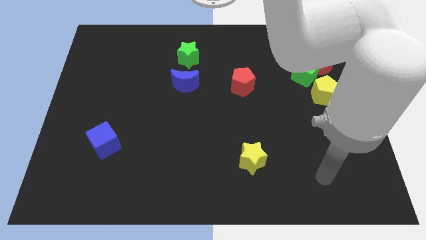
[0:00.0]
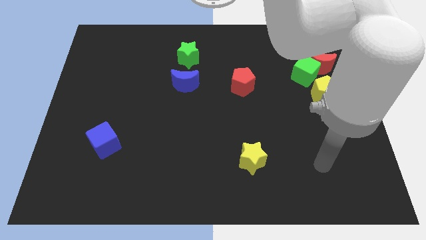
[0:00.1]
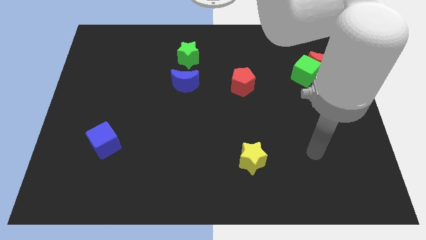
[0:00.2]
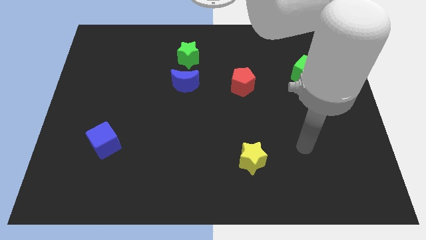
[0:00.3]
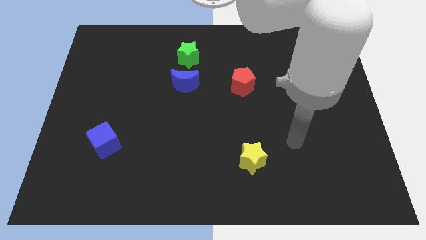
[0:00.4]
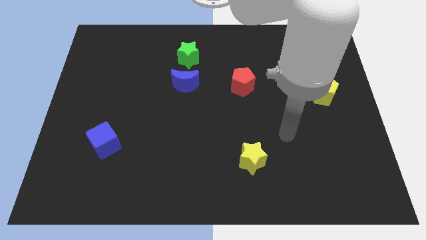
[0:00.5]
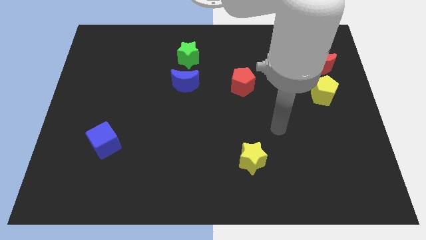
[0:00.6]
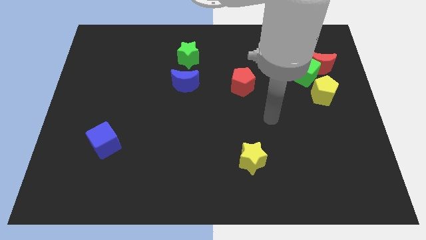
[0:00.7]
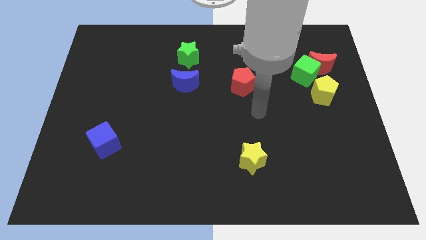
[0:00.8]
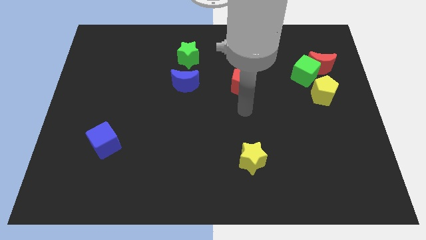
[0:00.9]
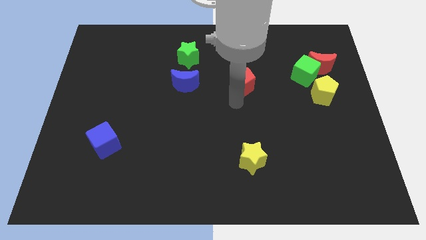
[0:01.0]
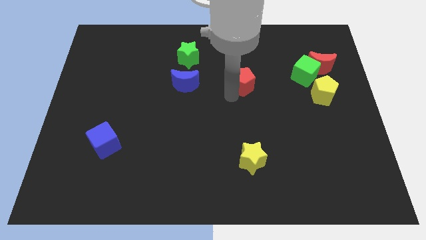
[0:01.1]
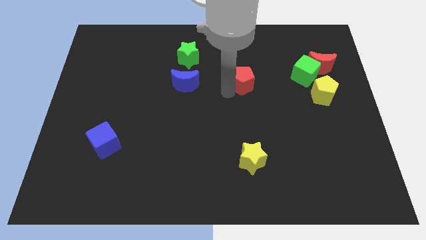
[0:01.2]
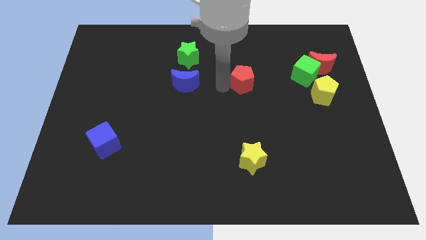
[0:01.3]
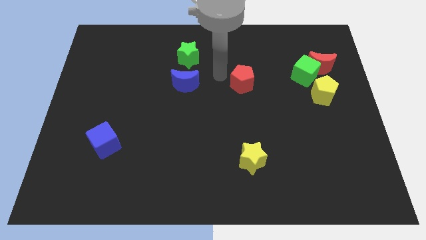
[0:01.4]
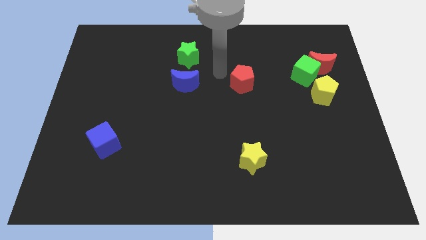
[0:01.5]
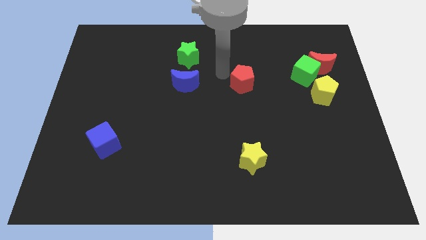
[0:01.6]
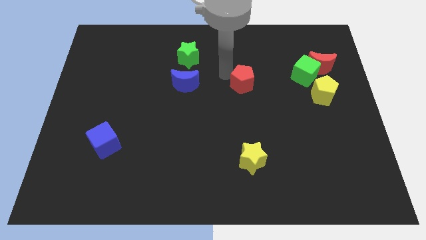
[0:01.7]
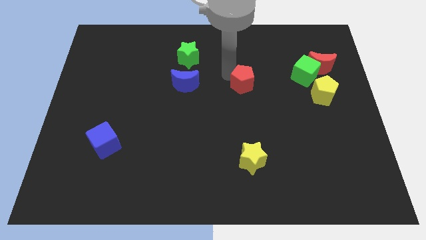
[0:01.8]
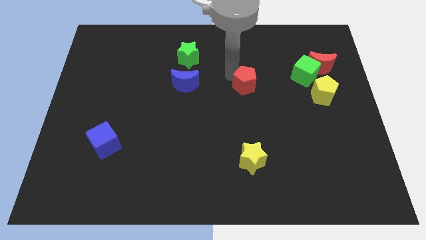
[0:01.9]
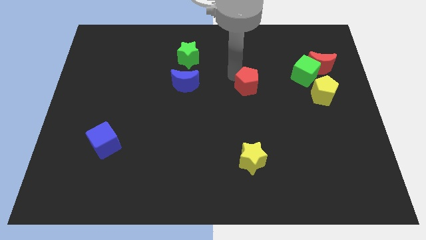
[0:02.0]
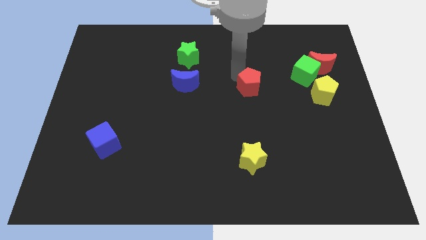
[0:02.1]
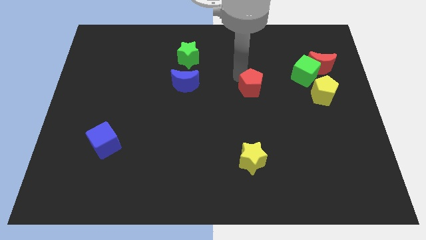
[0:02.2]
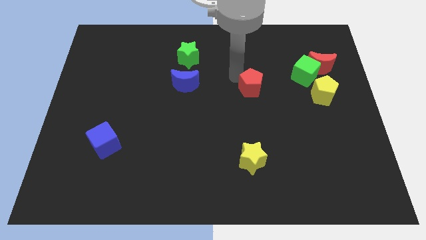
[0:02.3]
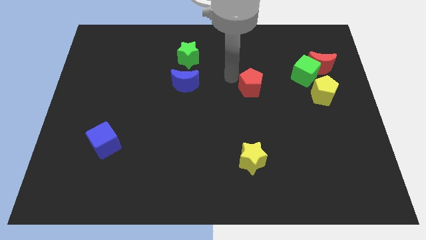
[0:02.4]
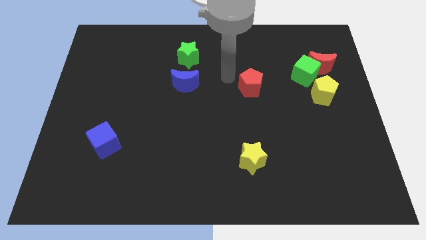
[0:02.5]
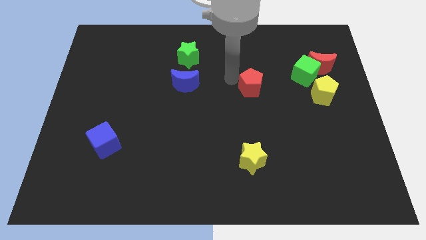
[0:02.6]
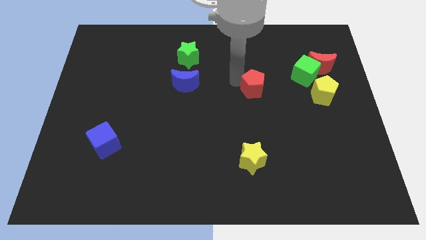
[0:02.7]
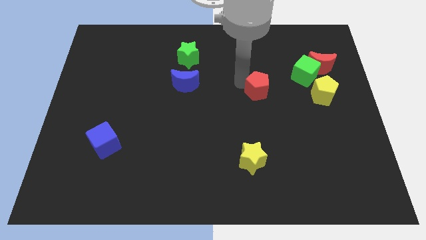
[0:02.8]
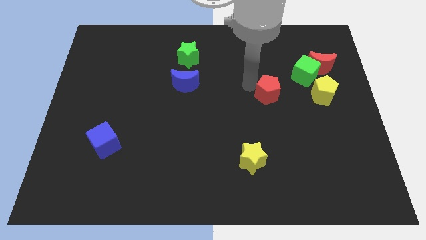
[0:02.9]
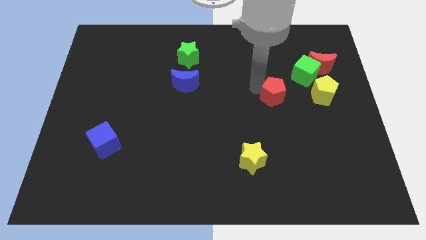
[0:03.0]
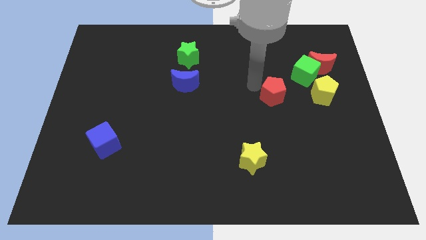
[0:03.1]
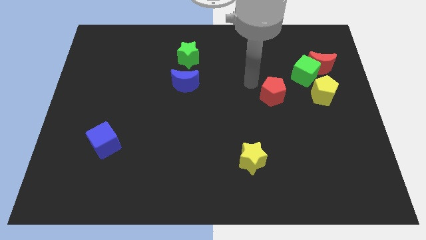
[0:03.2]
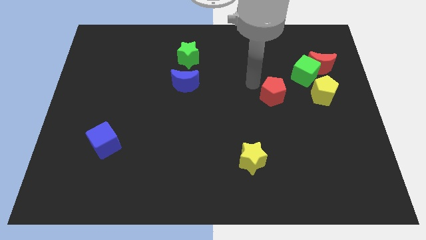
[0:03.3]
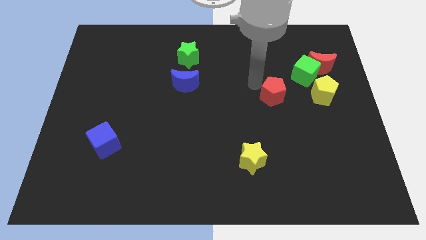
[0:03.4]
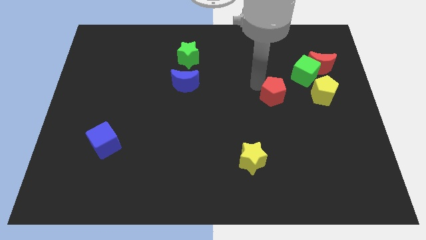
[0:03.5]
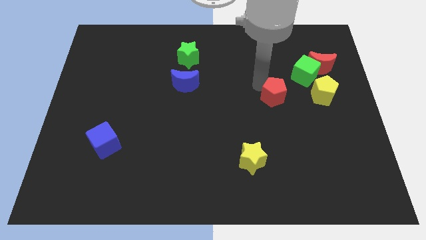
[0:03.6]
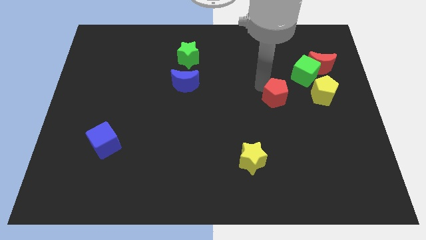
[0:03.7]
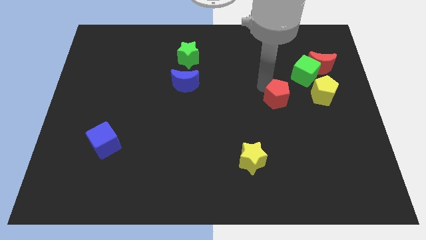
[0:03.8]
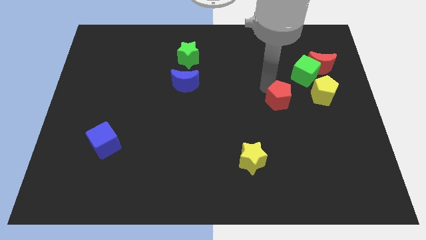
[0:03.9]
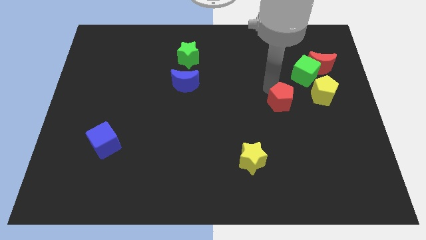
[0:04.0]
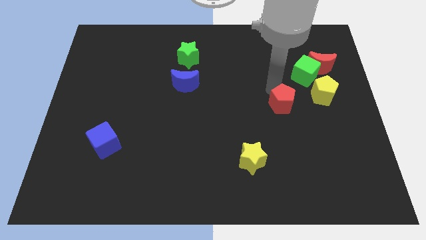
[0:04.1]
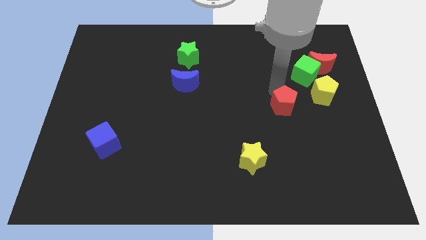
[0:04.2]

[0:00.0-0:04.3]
put the red pentagon diagonally down and to the left of the yellow pentagon

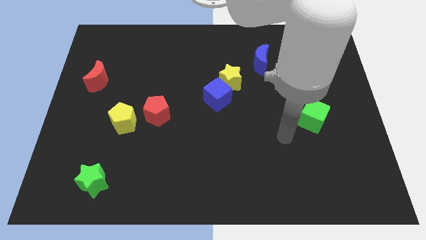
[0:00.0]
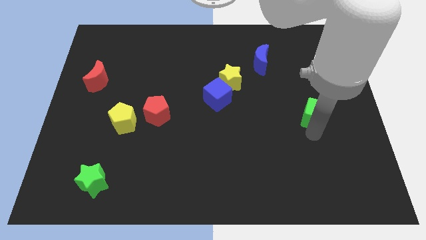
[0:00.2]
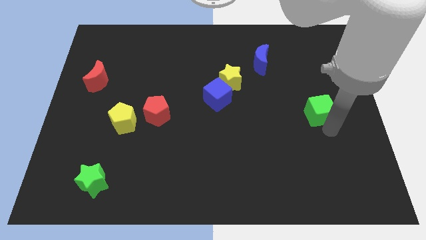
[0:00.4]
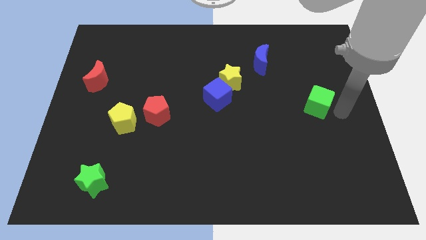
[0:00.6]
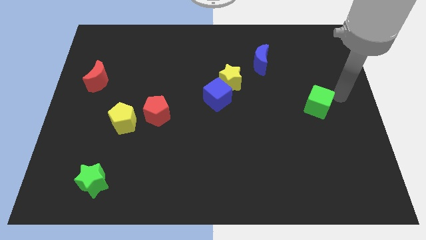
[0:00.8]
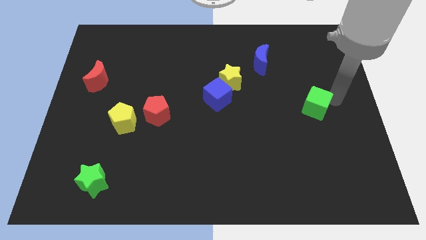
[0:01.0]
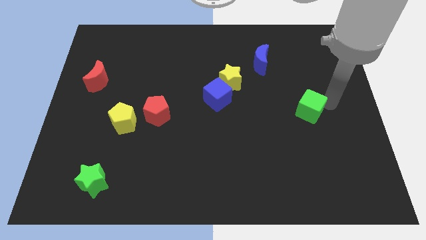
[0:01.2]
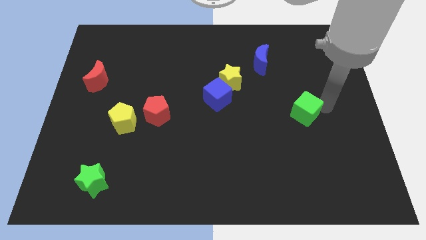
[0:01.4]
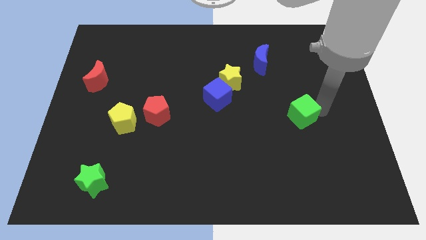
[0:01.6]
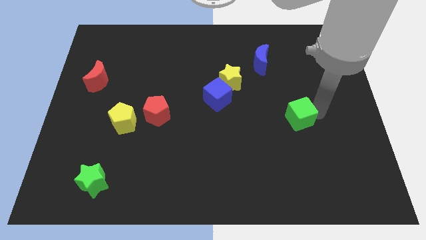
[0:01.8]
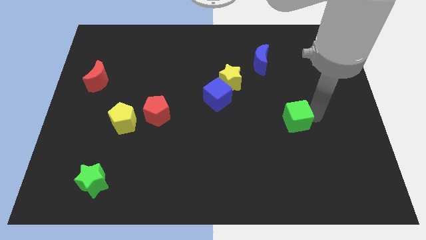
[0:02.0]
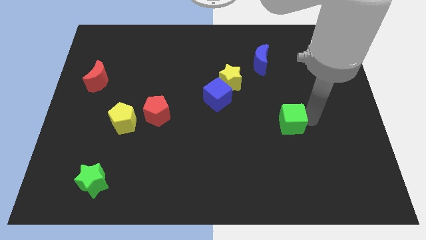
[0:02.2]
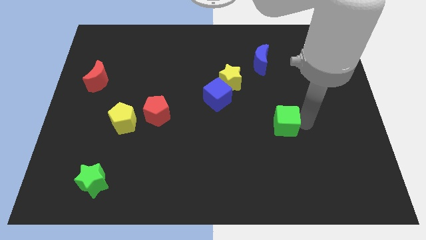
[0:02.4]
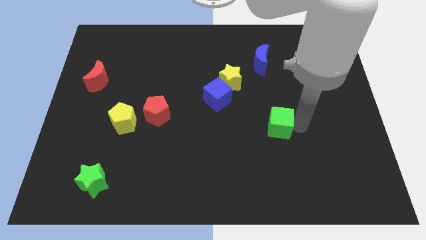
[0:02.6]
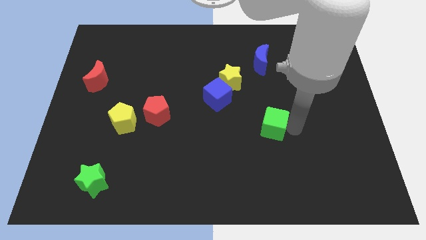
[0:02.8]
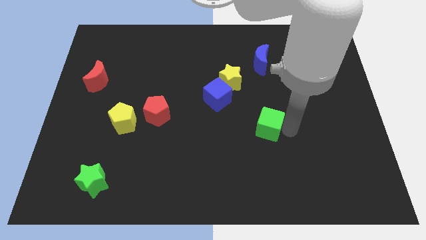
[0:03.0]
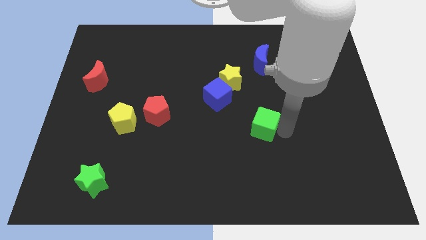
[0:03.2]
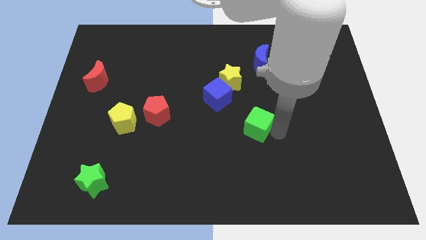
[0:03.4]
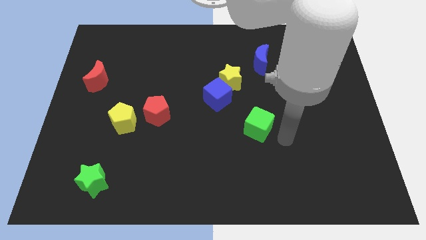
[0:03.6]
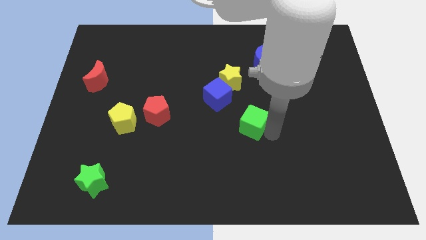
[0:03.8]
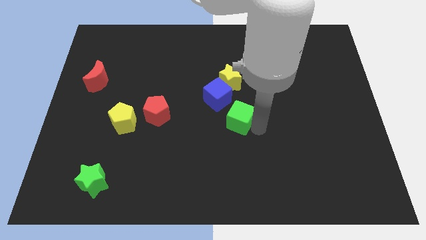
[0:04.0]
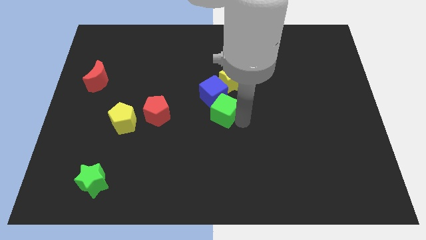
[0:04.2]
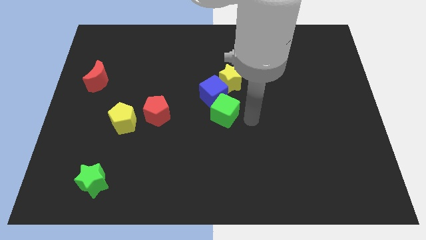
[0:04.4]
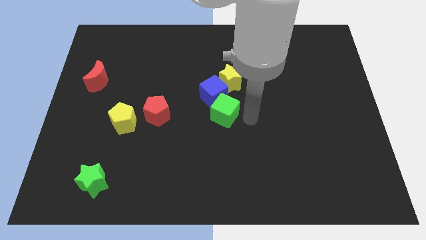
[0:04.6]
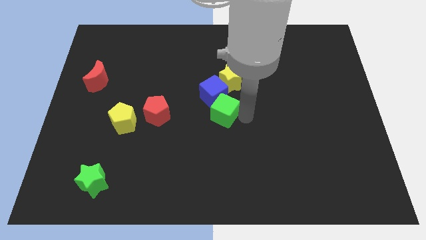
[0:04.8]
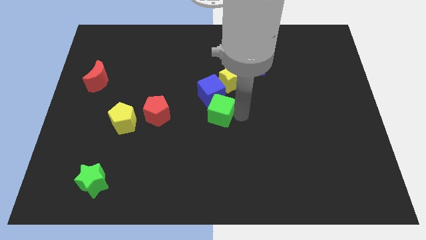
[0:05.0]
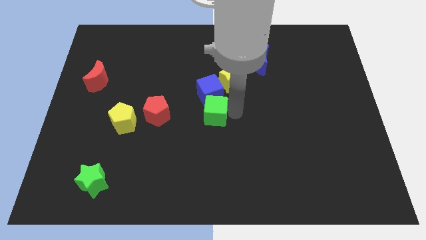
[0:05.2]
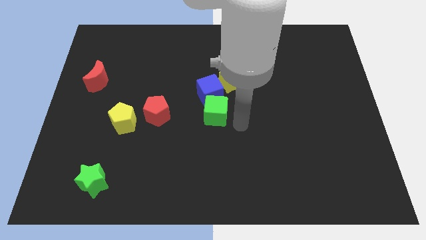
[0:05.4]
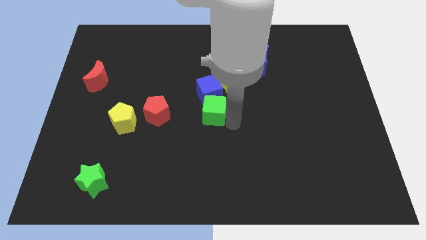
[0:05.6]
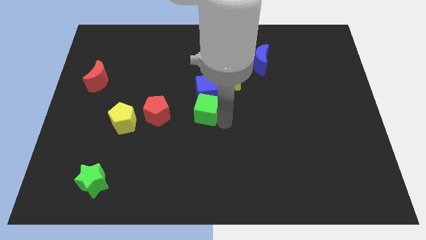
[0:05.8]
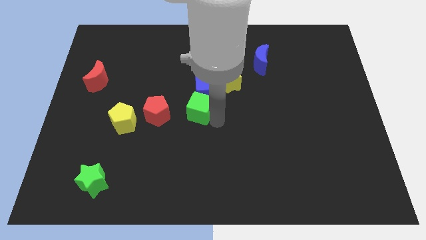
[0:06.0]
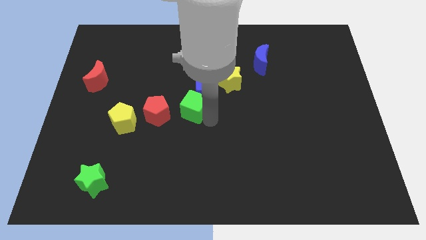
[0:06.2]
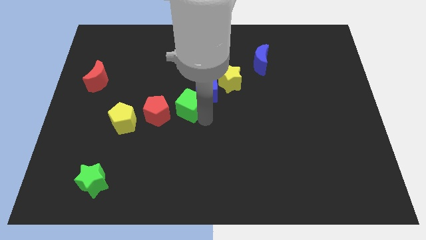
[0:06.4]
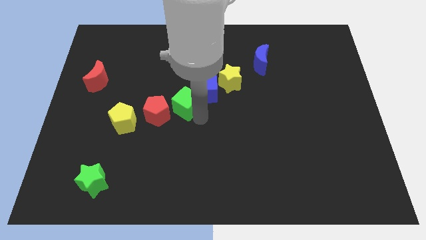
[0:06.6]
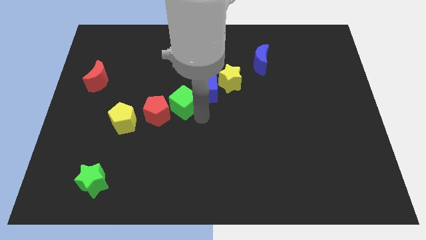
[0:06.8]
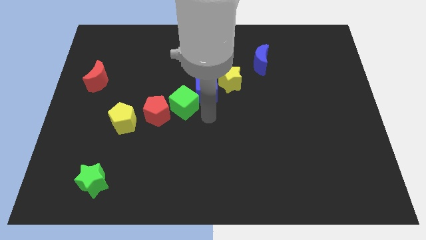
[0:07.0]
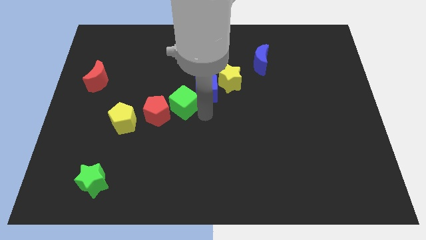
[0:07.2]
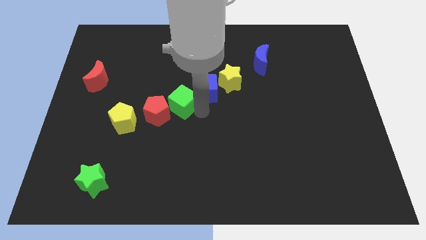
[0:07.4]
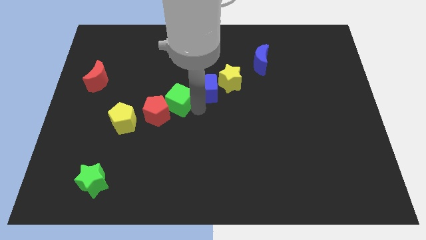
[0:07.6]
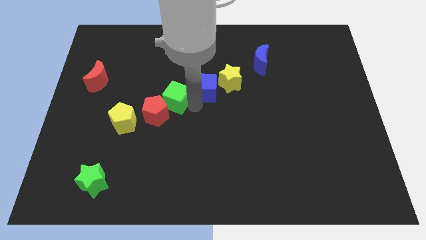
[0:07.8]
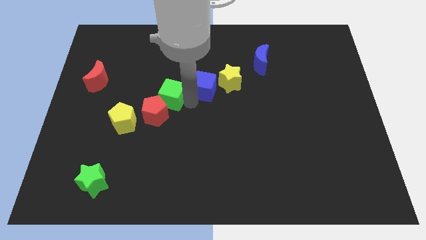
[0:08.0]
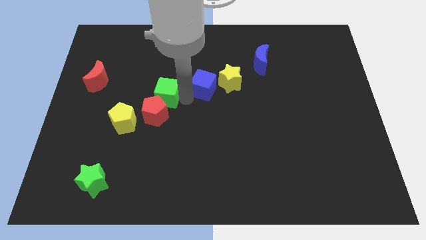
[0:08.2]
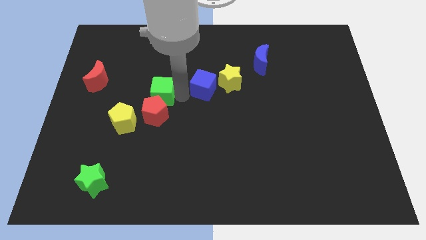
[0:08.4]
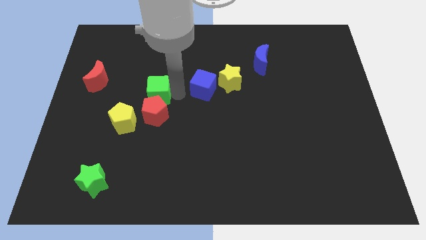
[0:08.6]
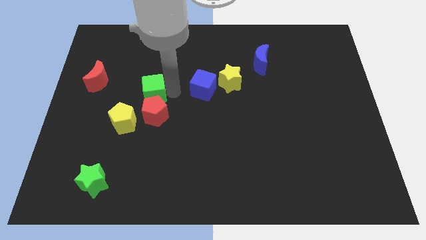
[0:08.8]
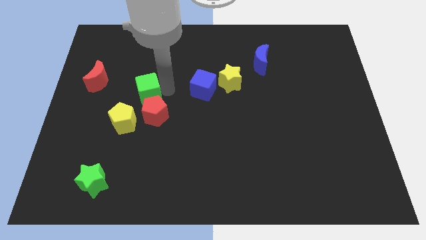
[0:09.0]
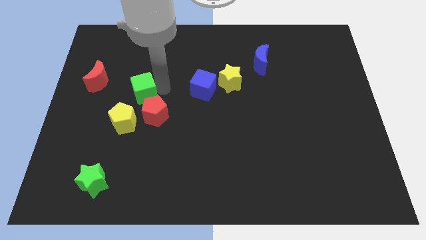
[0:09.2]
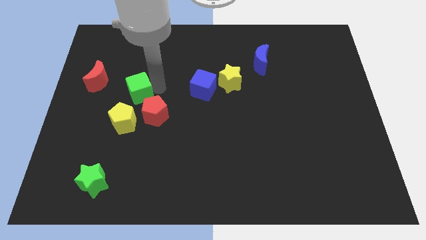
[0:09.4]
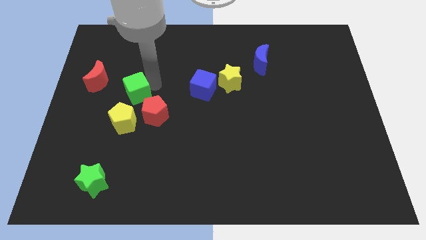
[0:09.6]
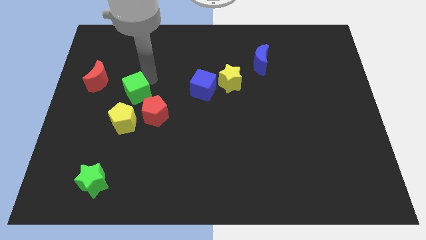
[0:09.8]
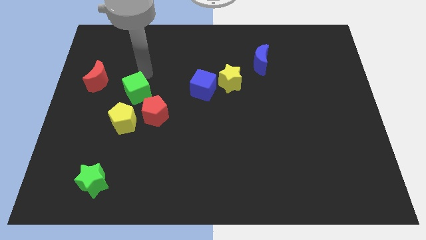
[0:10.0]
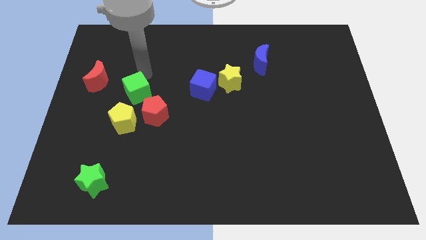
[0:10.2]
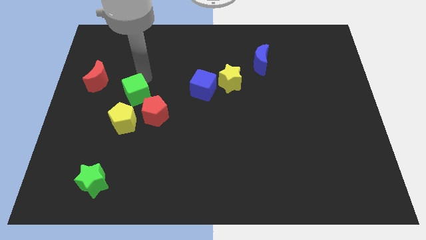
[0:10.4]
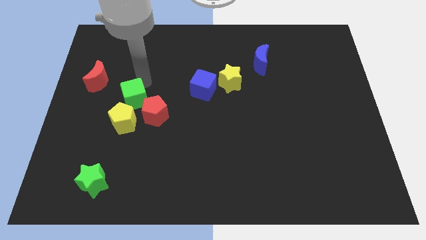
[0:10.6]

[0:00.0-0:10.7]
push the green cube just left of the red pentagon
